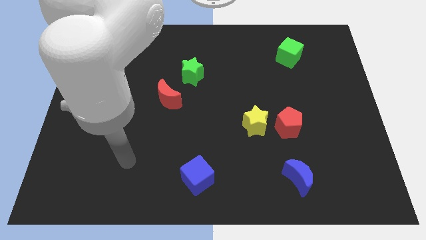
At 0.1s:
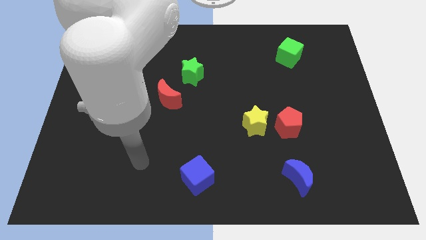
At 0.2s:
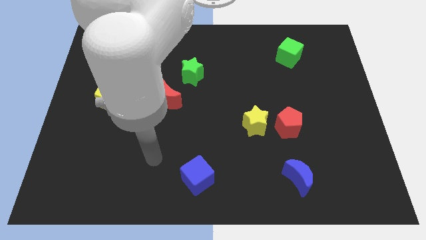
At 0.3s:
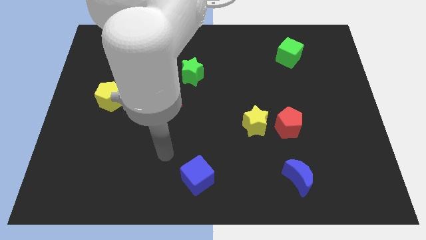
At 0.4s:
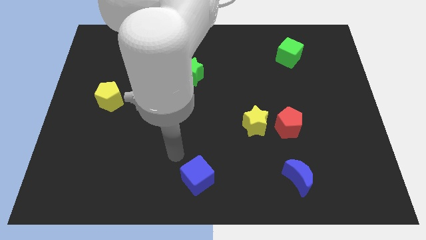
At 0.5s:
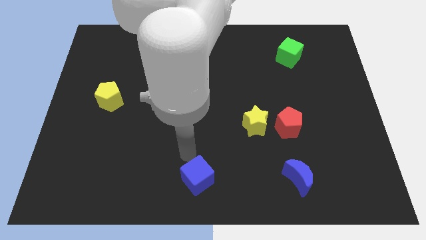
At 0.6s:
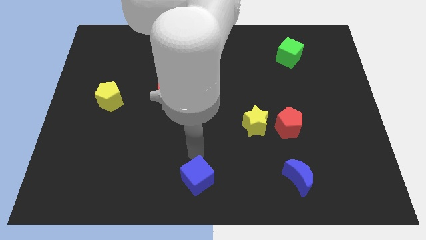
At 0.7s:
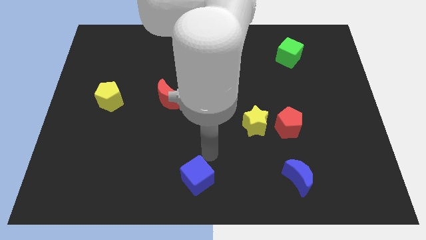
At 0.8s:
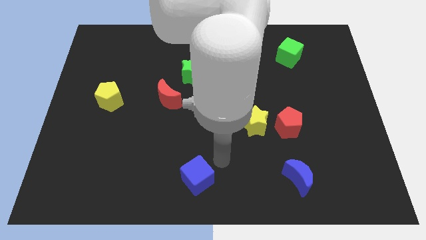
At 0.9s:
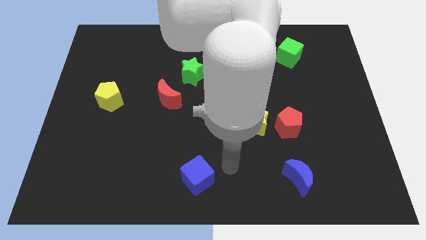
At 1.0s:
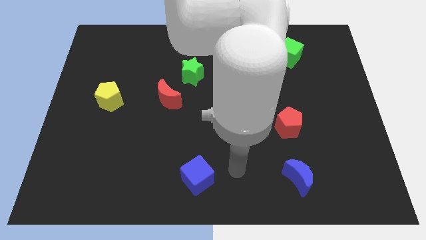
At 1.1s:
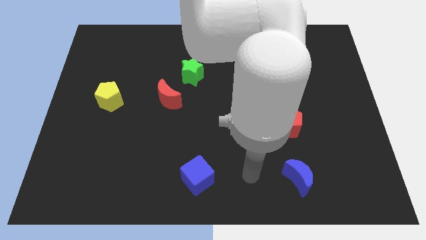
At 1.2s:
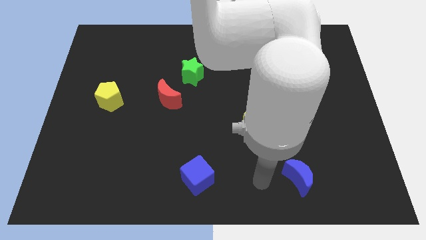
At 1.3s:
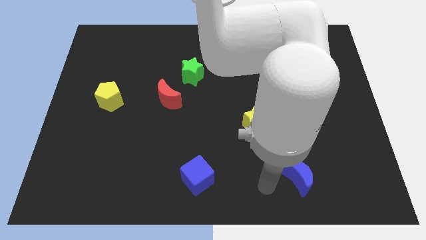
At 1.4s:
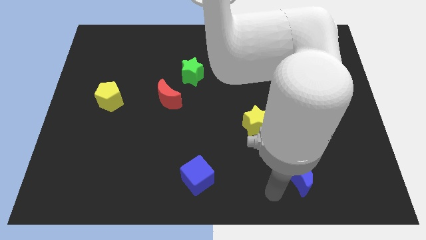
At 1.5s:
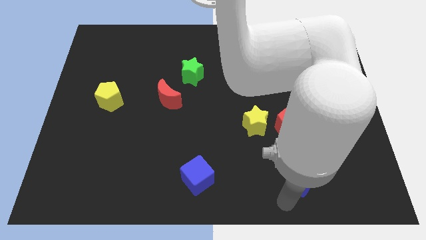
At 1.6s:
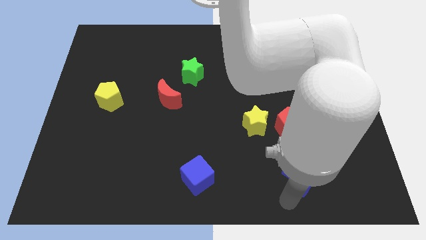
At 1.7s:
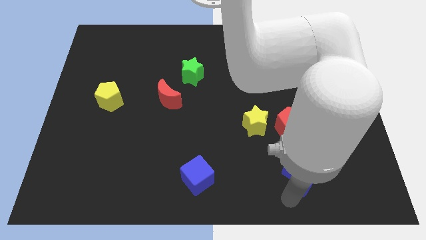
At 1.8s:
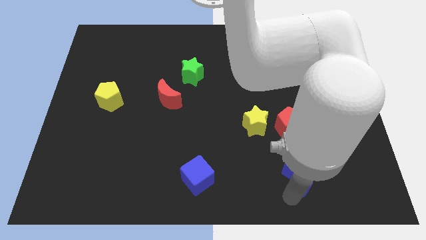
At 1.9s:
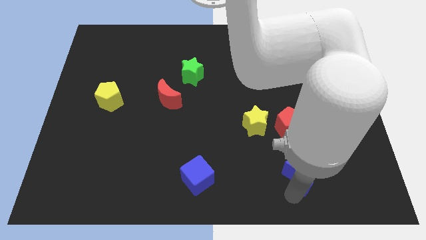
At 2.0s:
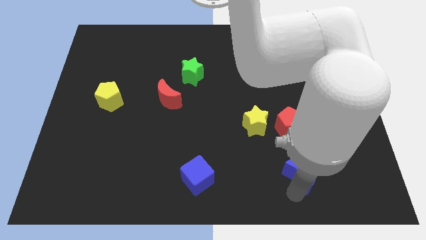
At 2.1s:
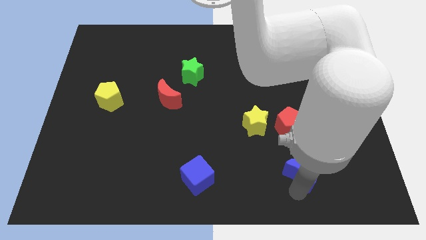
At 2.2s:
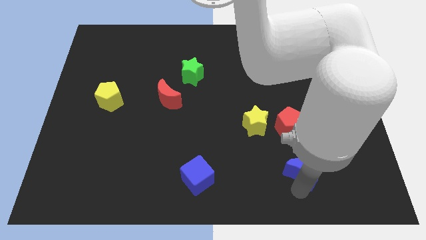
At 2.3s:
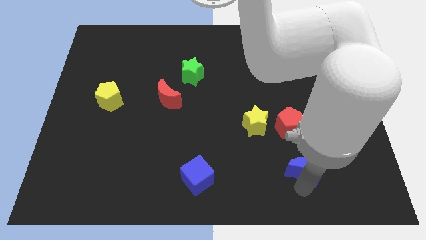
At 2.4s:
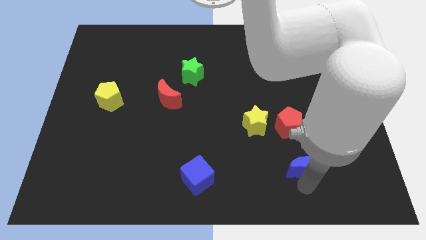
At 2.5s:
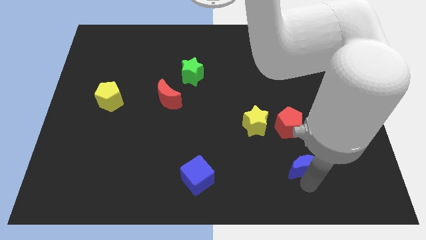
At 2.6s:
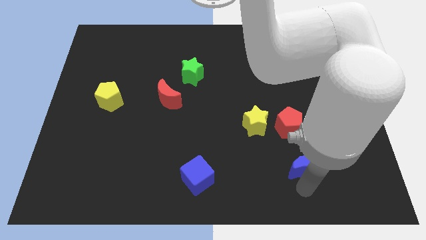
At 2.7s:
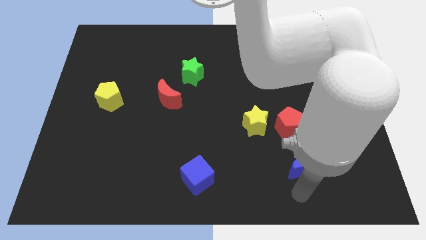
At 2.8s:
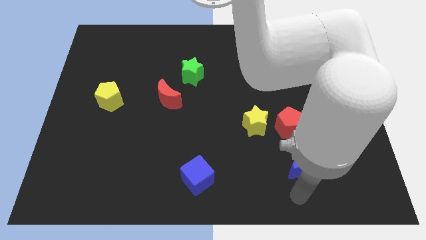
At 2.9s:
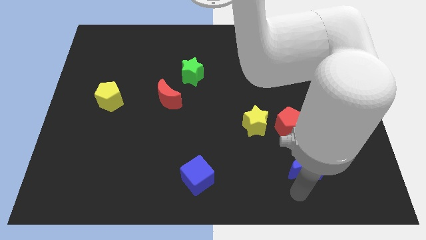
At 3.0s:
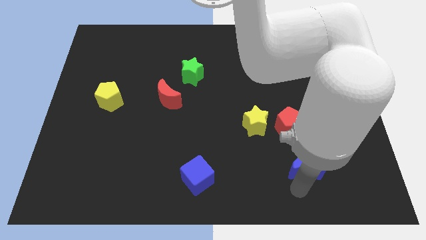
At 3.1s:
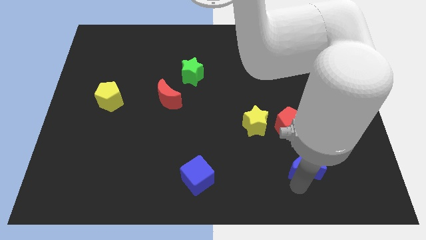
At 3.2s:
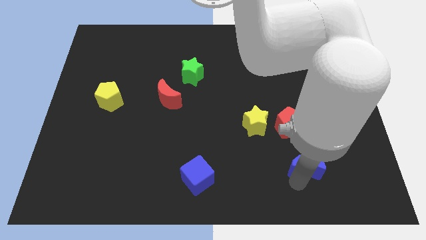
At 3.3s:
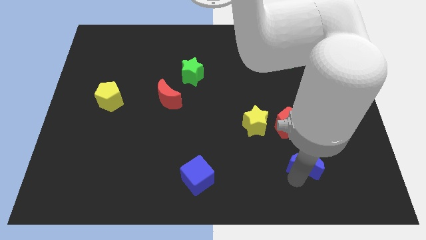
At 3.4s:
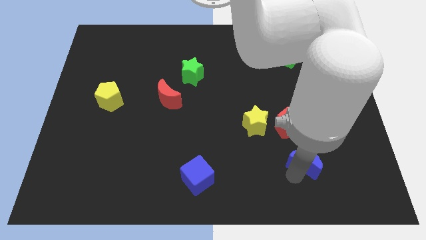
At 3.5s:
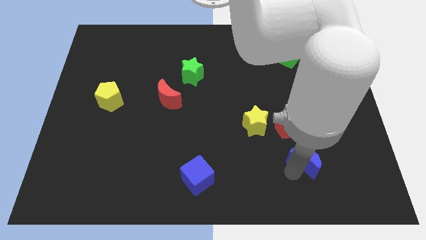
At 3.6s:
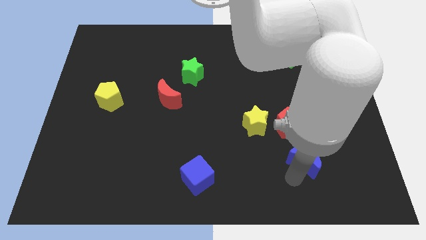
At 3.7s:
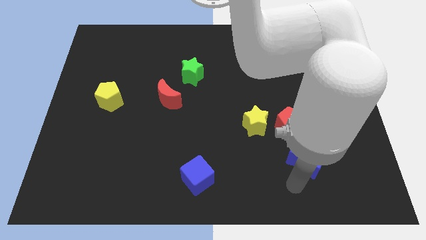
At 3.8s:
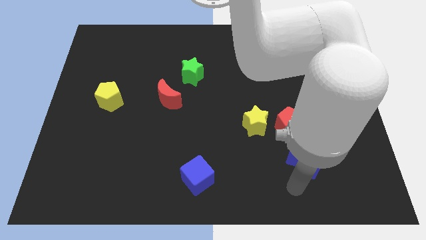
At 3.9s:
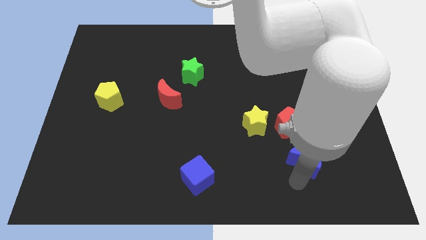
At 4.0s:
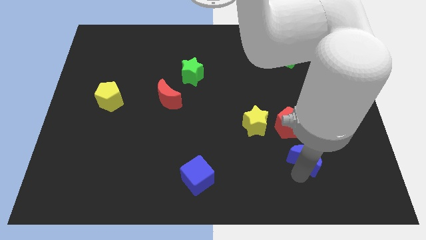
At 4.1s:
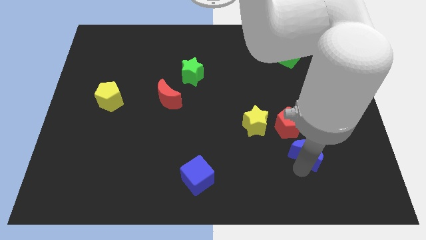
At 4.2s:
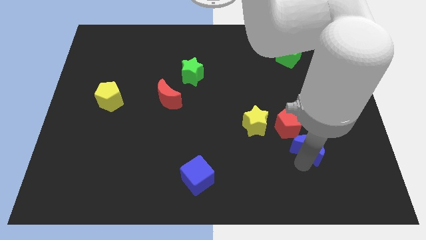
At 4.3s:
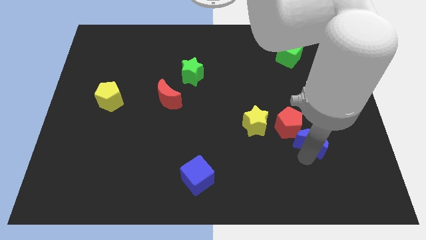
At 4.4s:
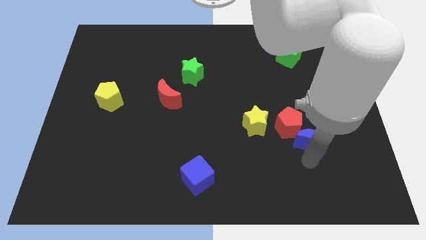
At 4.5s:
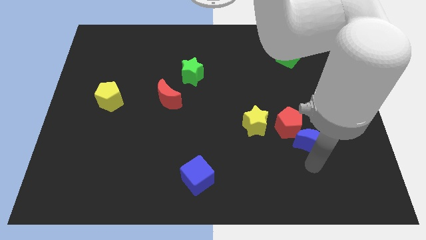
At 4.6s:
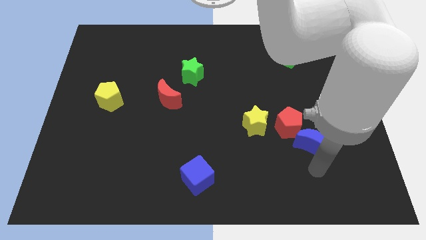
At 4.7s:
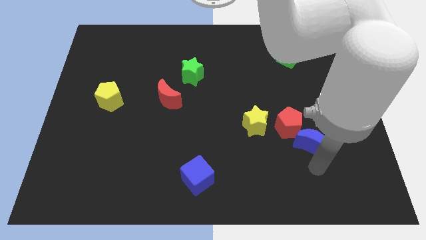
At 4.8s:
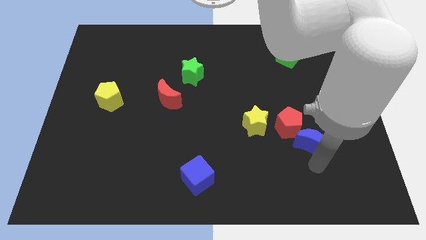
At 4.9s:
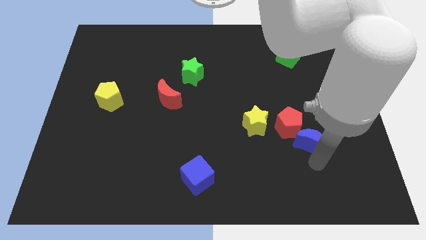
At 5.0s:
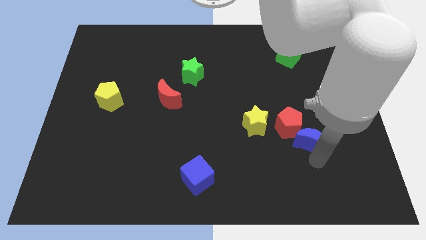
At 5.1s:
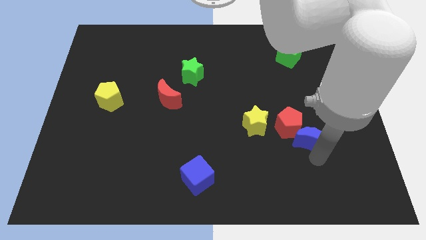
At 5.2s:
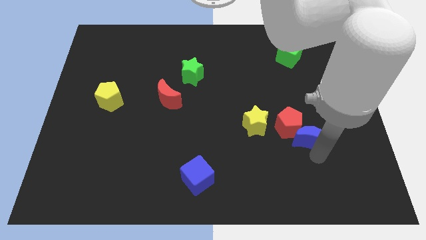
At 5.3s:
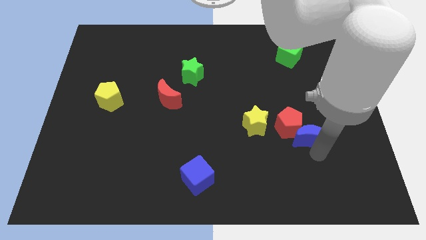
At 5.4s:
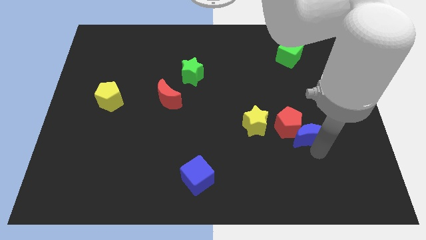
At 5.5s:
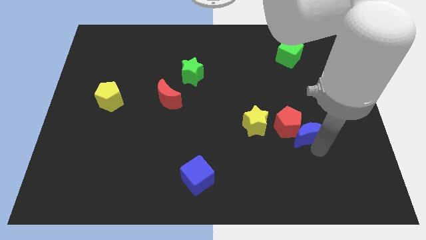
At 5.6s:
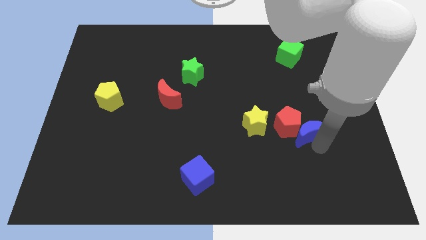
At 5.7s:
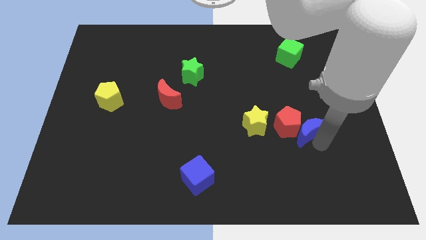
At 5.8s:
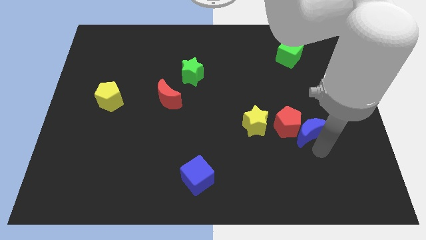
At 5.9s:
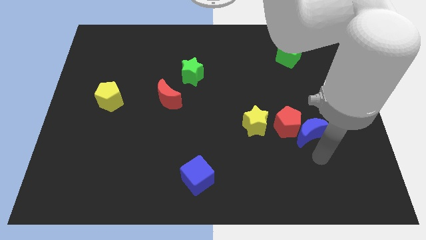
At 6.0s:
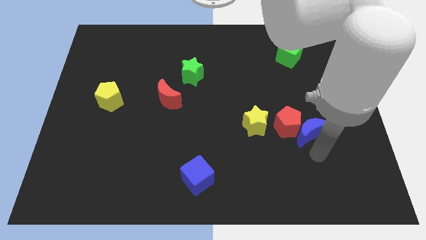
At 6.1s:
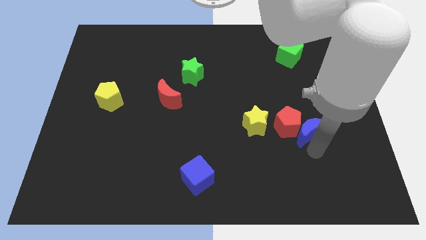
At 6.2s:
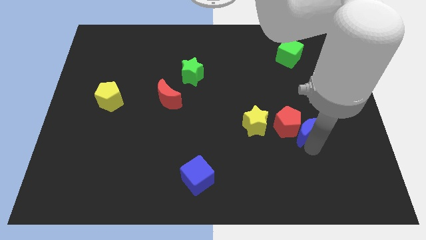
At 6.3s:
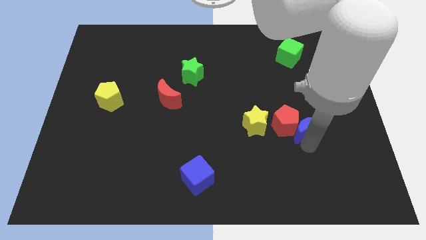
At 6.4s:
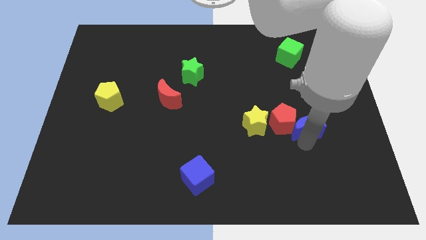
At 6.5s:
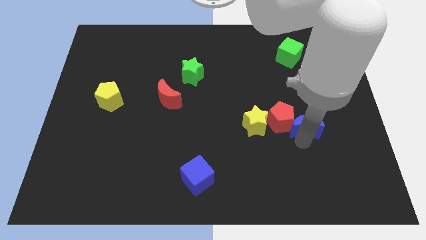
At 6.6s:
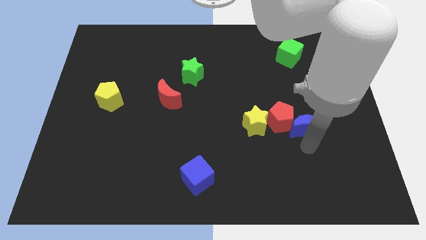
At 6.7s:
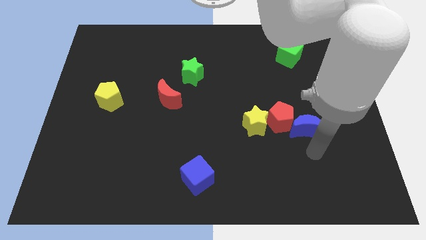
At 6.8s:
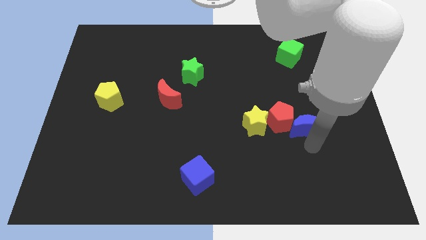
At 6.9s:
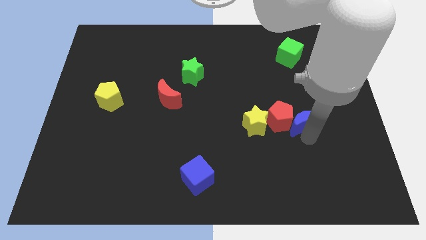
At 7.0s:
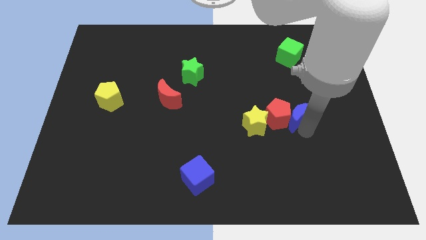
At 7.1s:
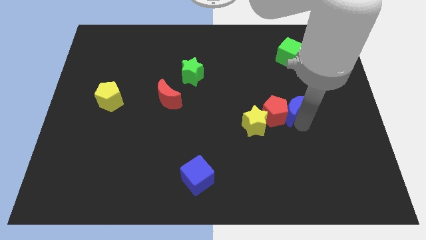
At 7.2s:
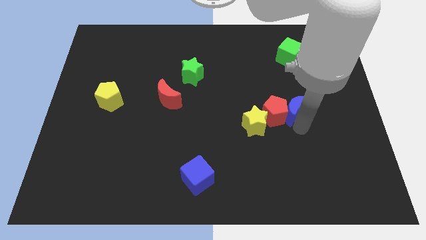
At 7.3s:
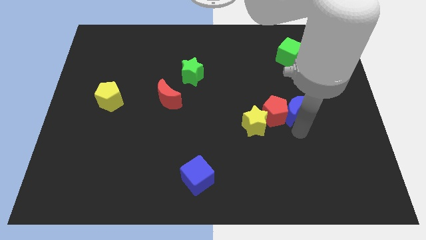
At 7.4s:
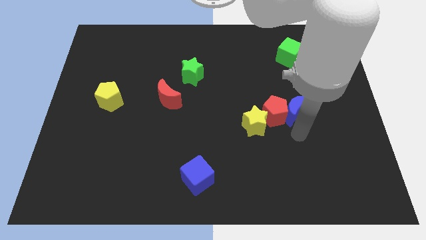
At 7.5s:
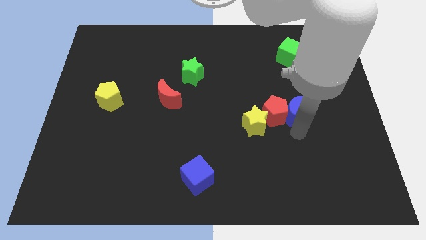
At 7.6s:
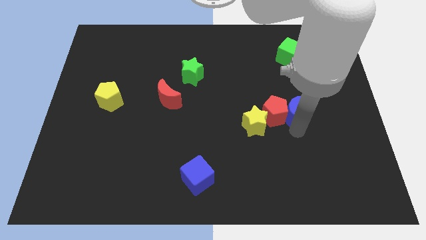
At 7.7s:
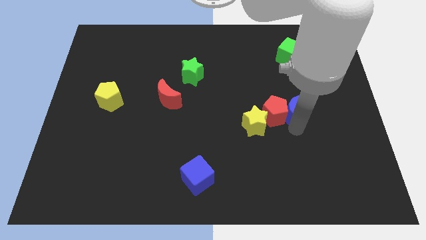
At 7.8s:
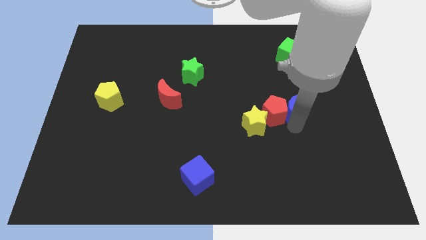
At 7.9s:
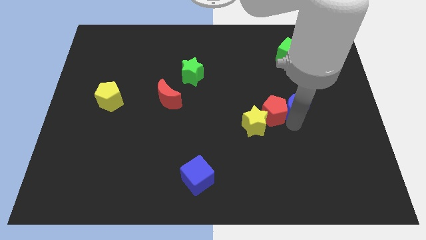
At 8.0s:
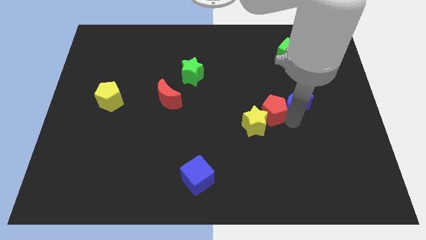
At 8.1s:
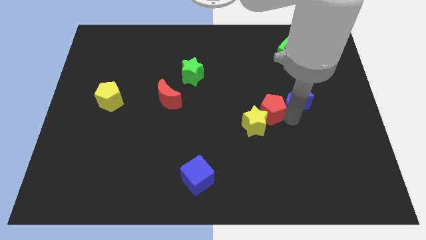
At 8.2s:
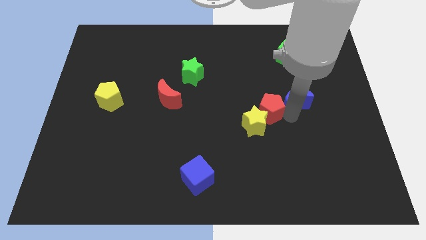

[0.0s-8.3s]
push the blue moon upwards
